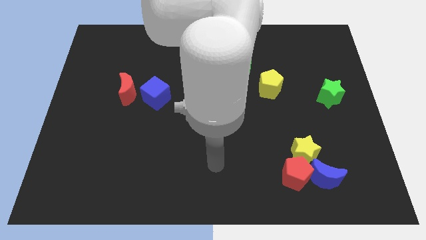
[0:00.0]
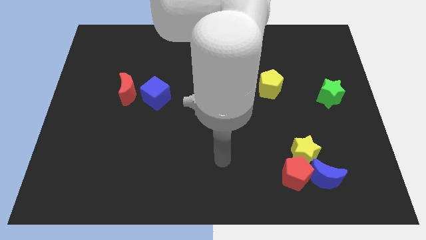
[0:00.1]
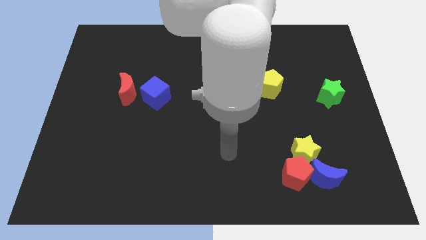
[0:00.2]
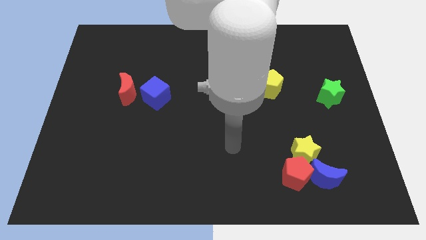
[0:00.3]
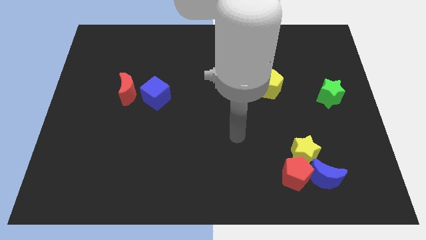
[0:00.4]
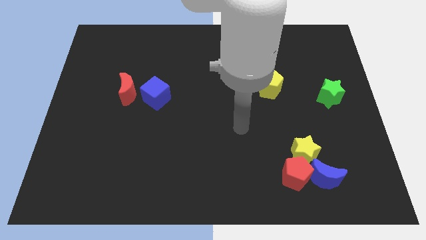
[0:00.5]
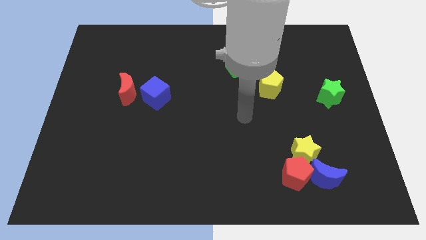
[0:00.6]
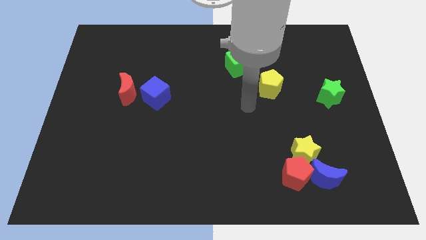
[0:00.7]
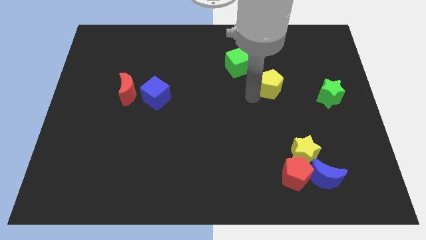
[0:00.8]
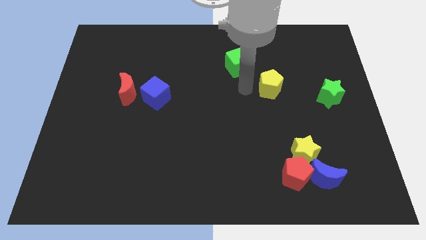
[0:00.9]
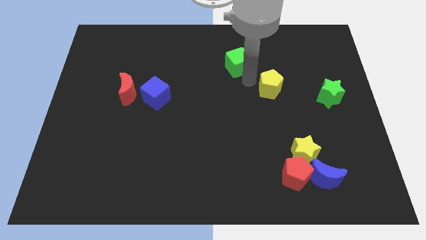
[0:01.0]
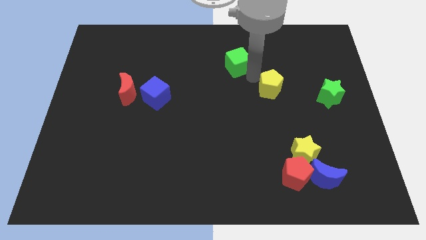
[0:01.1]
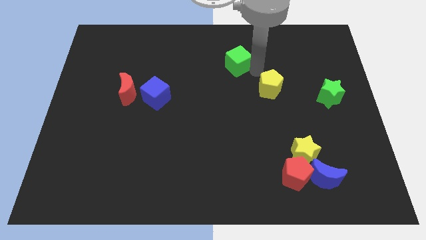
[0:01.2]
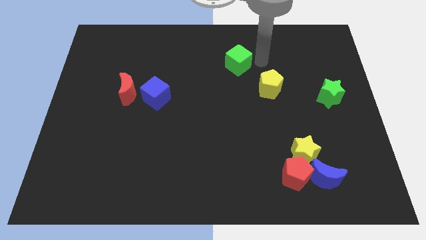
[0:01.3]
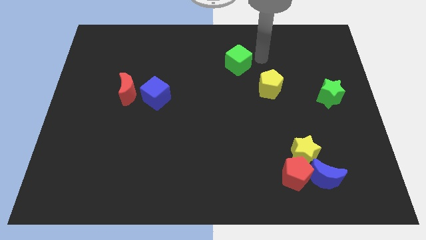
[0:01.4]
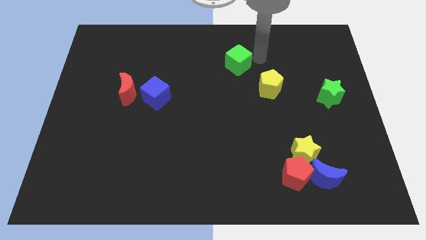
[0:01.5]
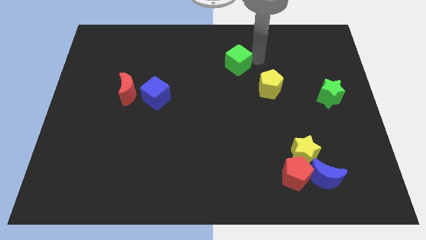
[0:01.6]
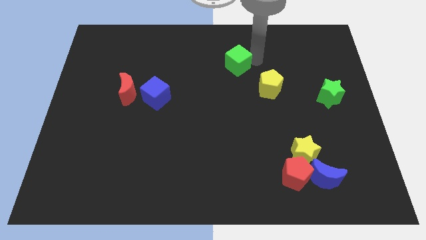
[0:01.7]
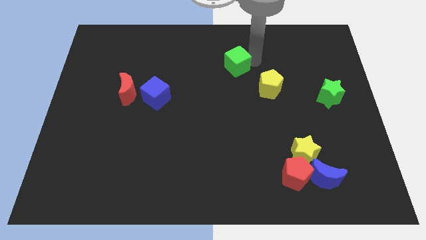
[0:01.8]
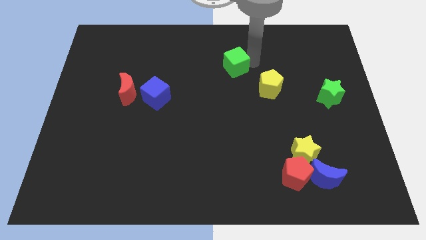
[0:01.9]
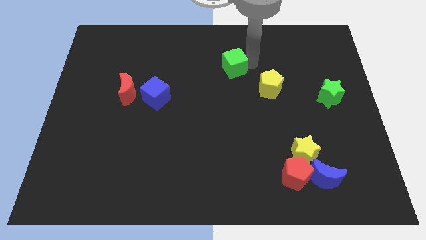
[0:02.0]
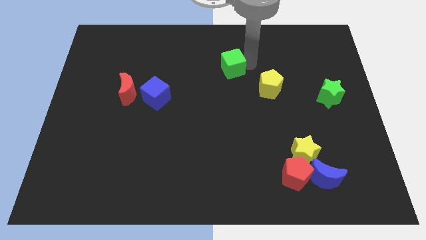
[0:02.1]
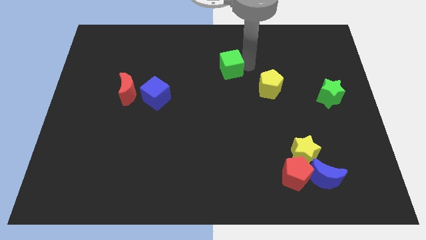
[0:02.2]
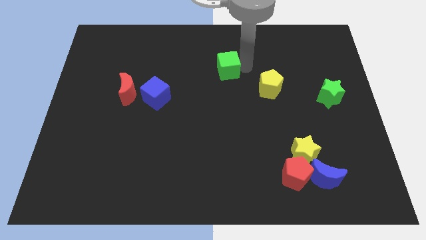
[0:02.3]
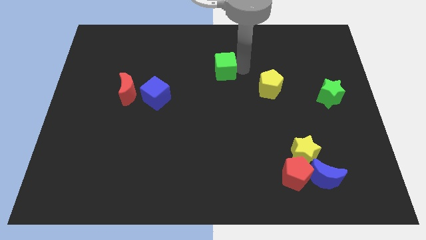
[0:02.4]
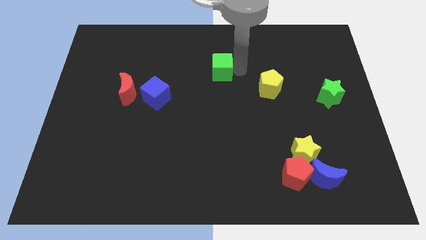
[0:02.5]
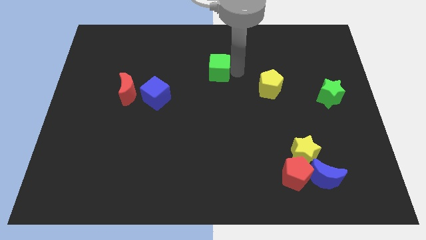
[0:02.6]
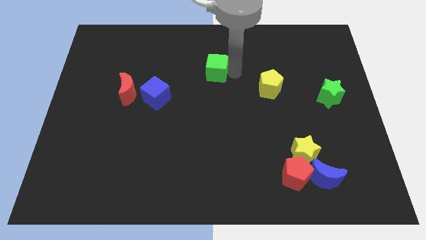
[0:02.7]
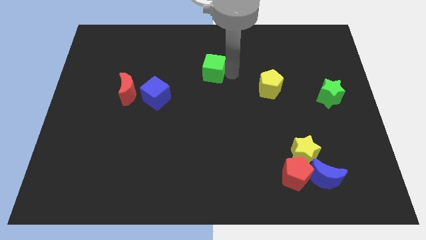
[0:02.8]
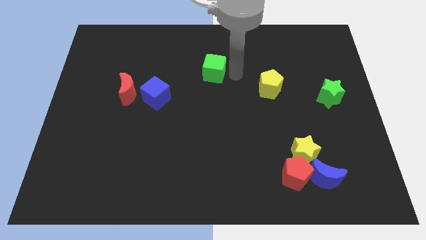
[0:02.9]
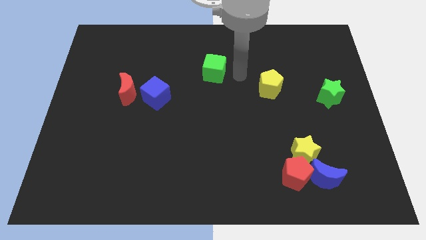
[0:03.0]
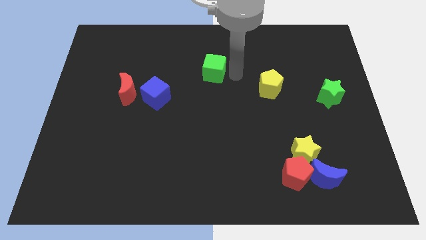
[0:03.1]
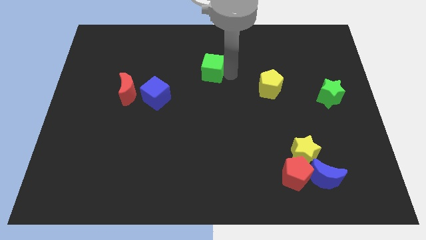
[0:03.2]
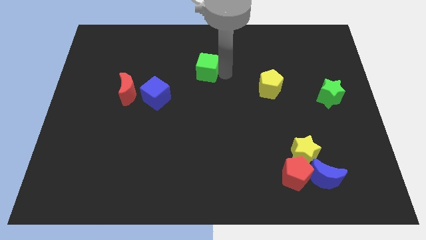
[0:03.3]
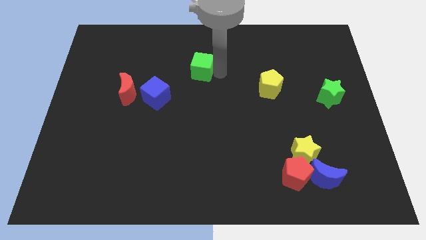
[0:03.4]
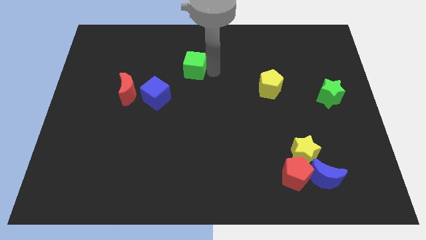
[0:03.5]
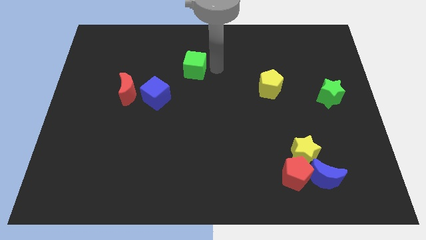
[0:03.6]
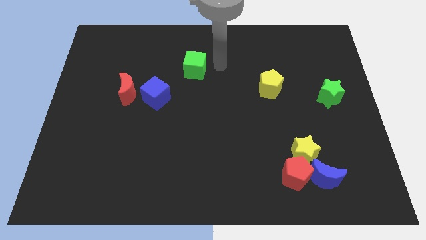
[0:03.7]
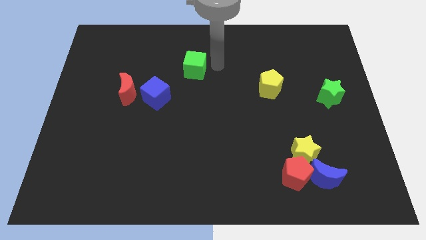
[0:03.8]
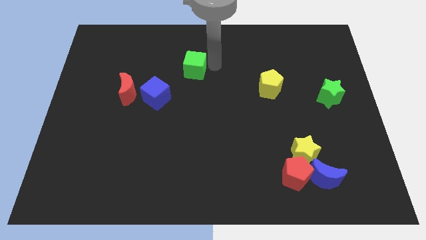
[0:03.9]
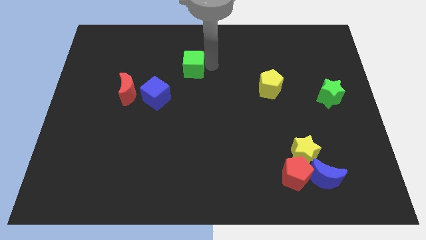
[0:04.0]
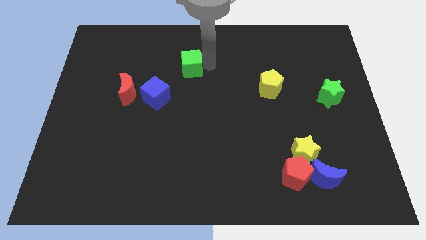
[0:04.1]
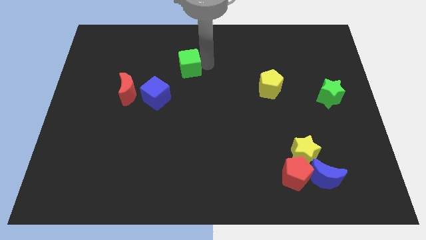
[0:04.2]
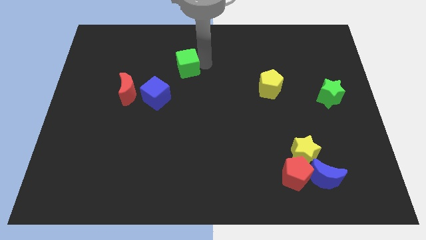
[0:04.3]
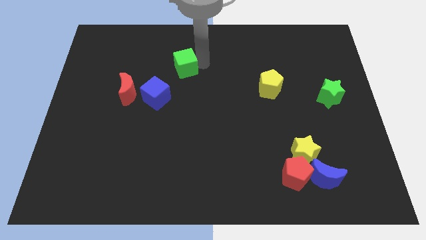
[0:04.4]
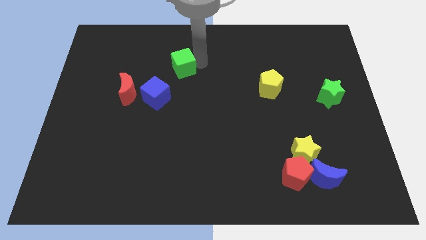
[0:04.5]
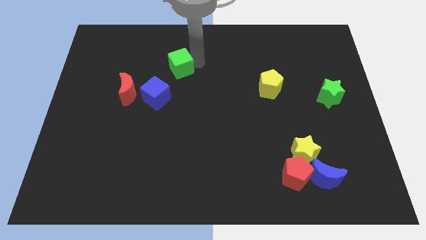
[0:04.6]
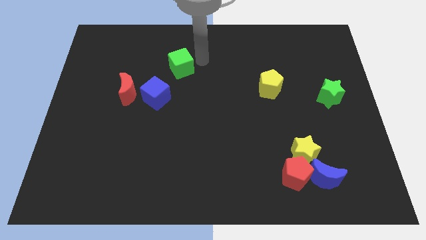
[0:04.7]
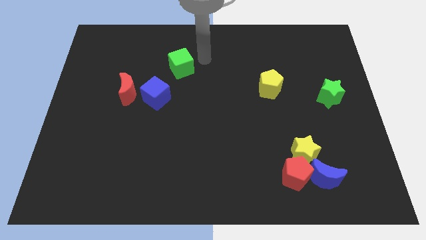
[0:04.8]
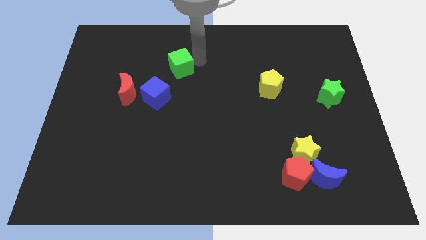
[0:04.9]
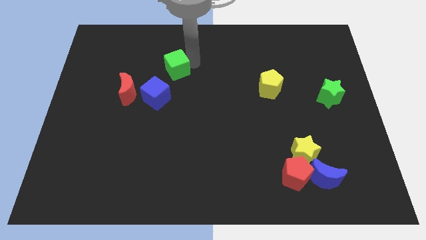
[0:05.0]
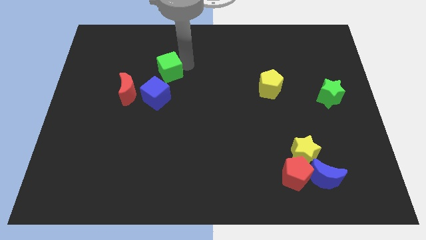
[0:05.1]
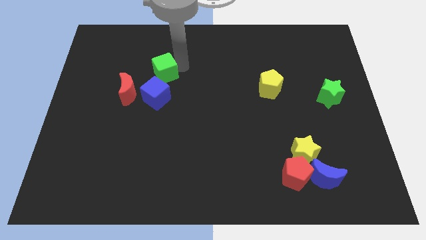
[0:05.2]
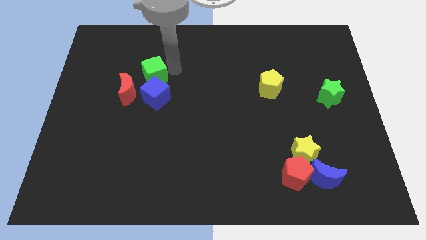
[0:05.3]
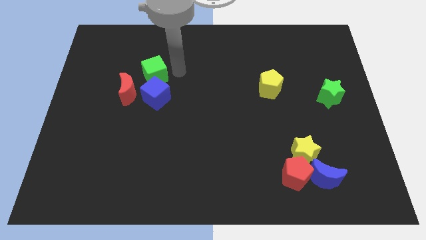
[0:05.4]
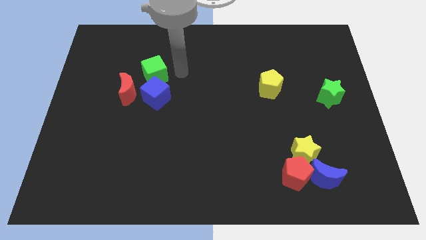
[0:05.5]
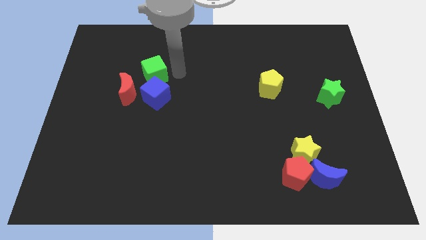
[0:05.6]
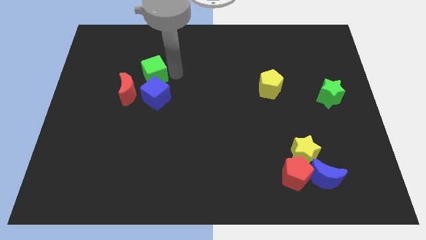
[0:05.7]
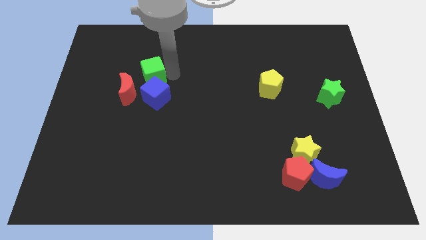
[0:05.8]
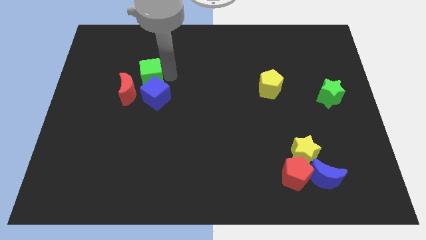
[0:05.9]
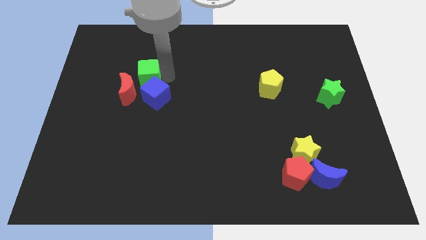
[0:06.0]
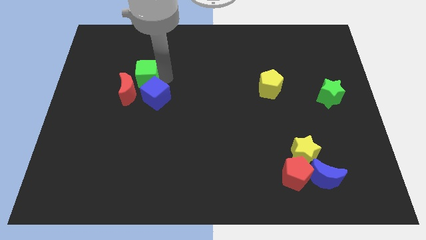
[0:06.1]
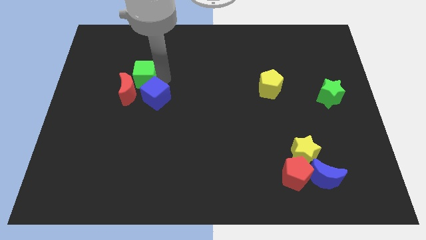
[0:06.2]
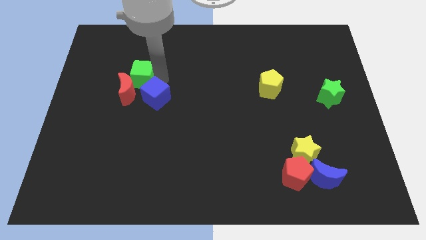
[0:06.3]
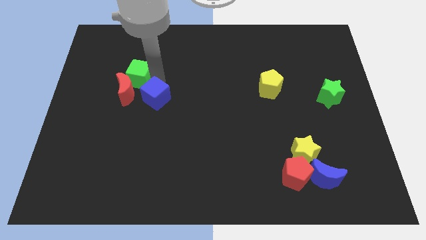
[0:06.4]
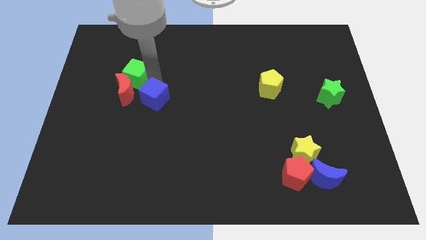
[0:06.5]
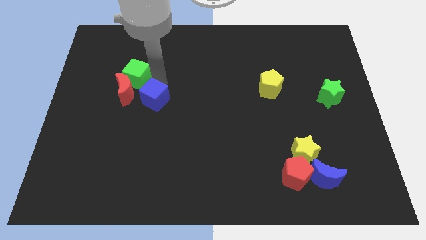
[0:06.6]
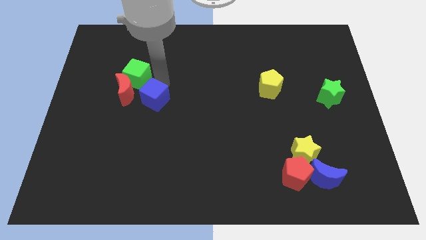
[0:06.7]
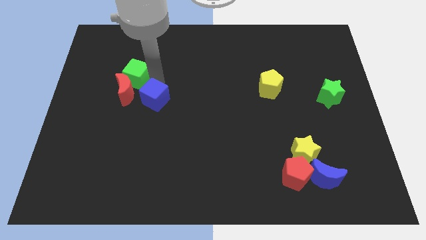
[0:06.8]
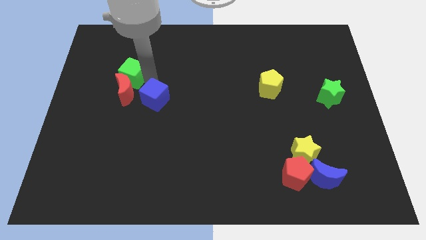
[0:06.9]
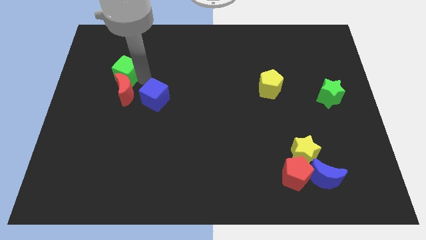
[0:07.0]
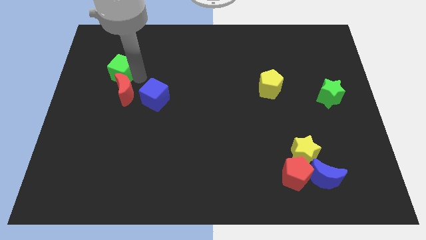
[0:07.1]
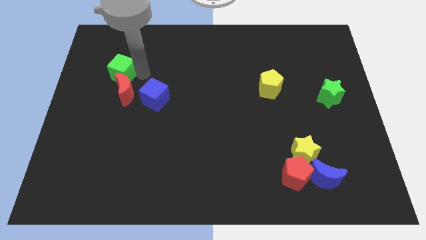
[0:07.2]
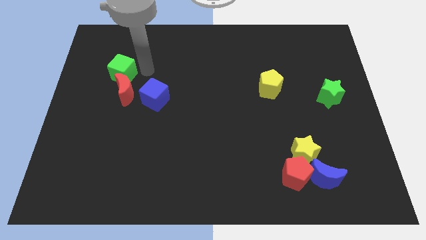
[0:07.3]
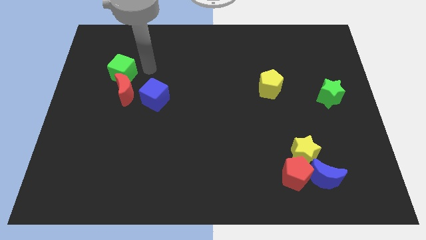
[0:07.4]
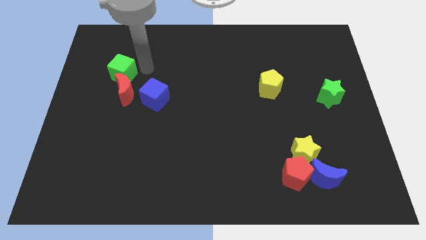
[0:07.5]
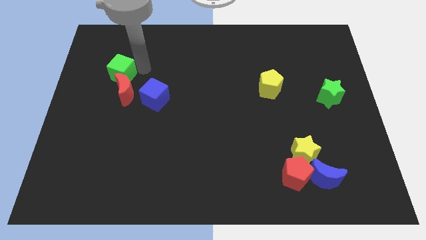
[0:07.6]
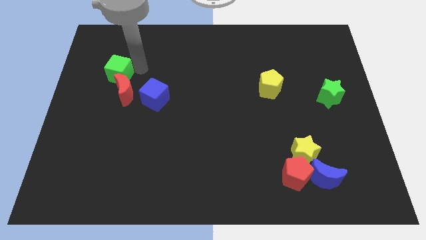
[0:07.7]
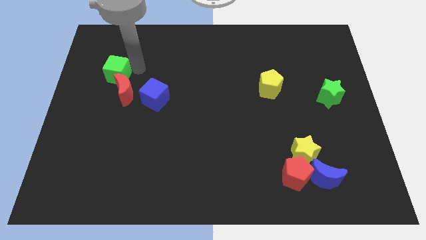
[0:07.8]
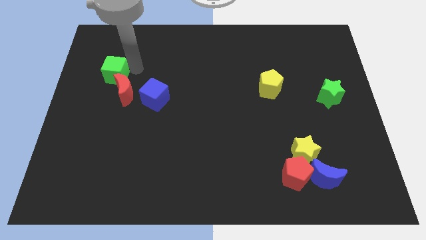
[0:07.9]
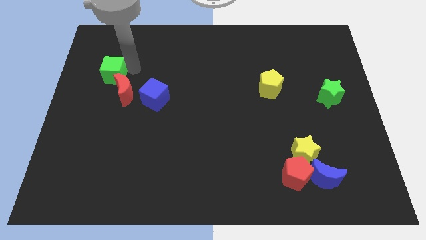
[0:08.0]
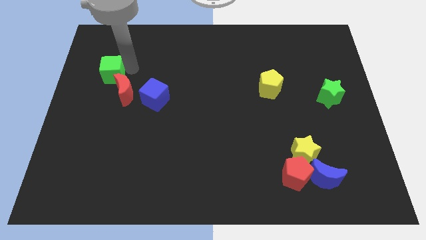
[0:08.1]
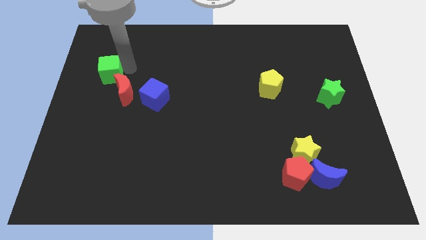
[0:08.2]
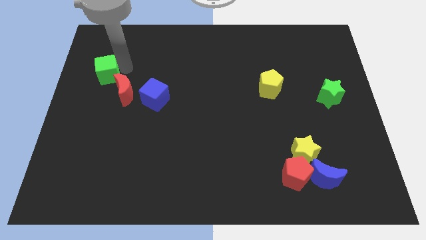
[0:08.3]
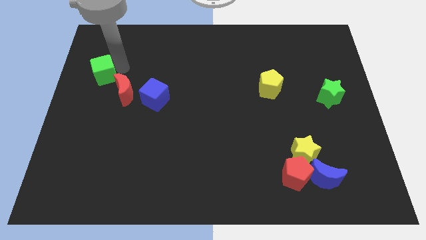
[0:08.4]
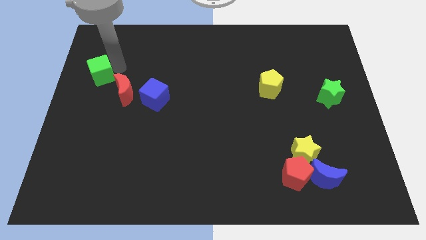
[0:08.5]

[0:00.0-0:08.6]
move the green cube to the left side
